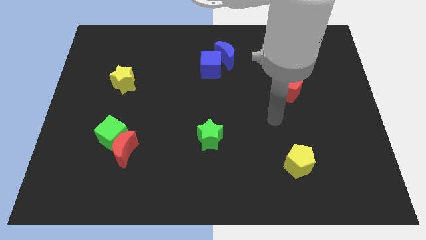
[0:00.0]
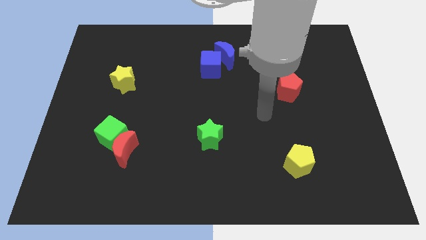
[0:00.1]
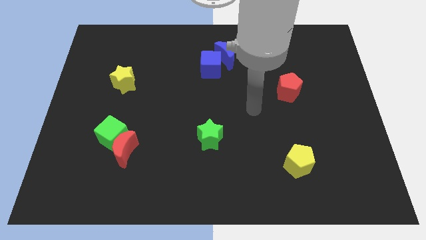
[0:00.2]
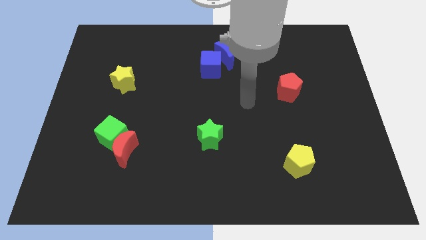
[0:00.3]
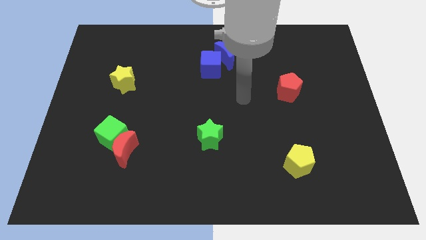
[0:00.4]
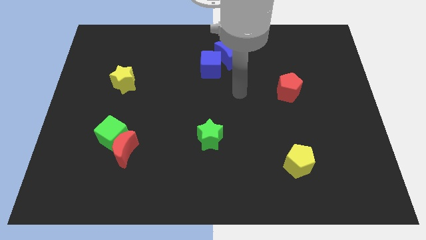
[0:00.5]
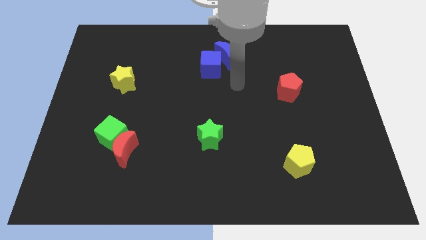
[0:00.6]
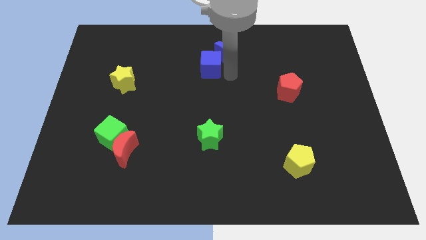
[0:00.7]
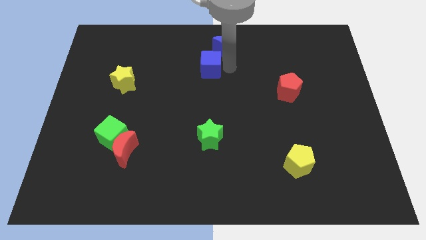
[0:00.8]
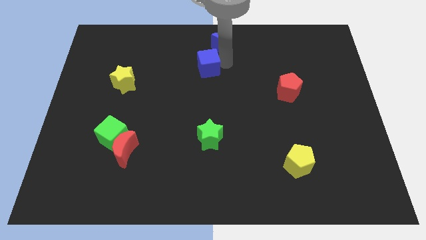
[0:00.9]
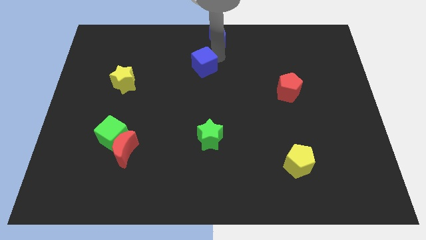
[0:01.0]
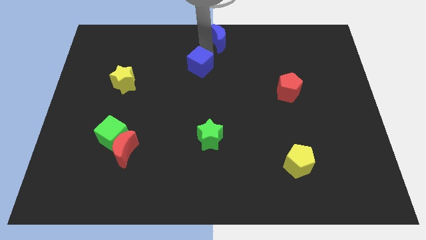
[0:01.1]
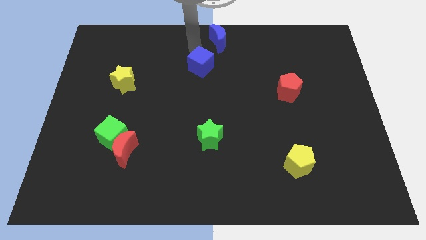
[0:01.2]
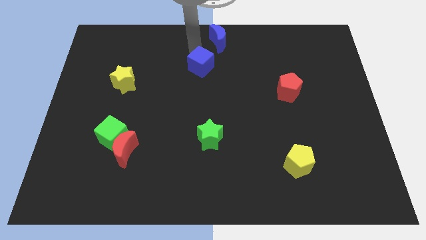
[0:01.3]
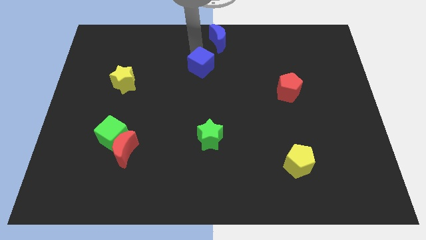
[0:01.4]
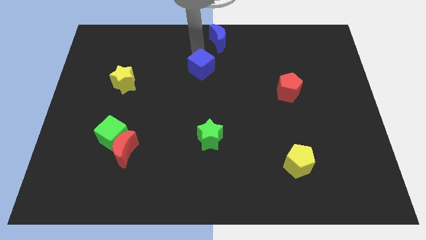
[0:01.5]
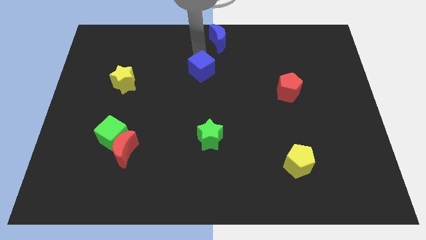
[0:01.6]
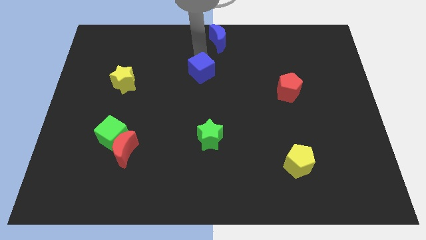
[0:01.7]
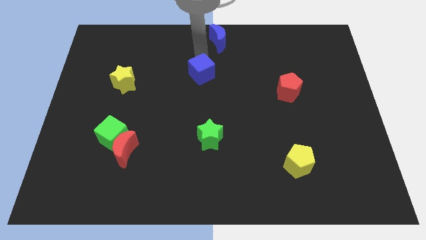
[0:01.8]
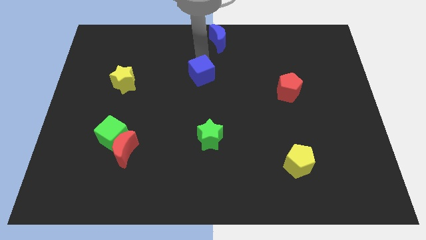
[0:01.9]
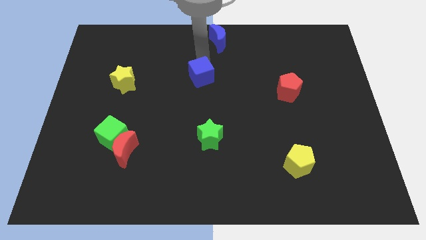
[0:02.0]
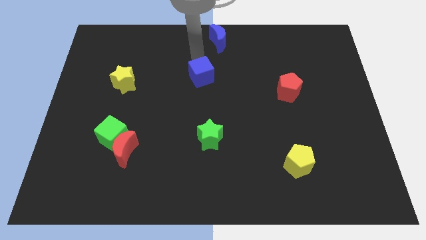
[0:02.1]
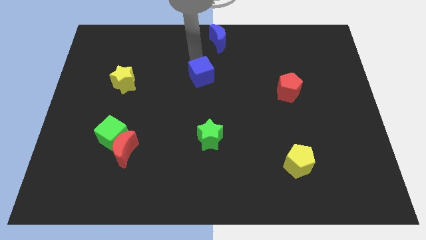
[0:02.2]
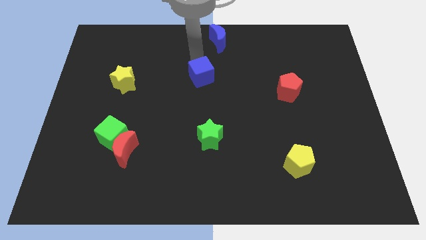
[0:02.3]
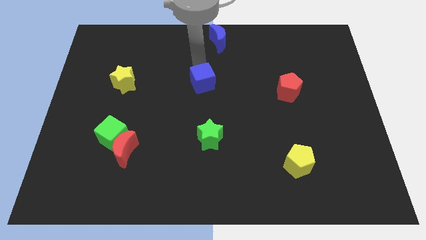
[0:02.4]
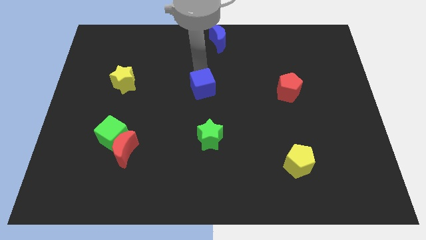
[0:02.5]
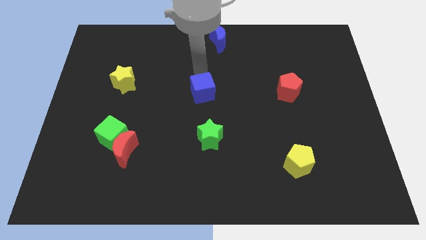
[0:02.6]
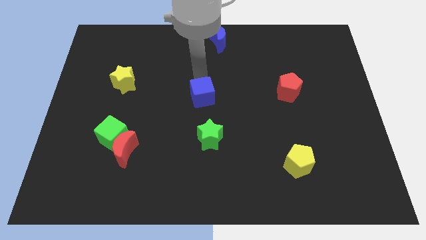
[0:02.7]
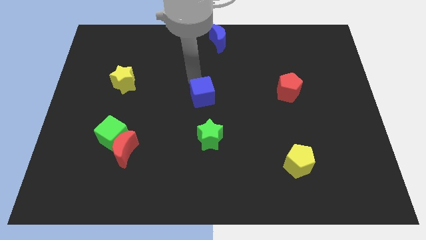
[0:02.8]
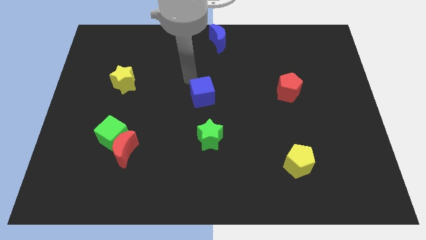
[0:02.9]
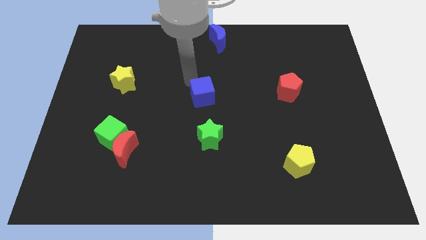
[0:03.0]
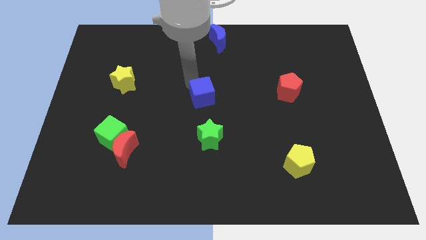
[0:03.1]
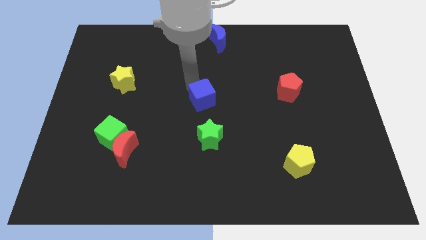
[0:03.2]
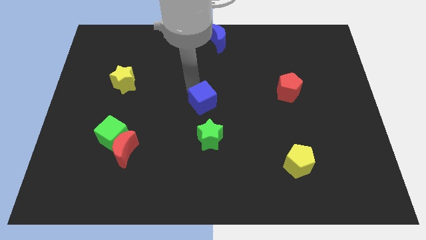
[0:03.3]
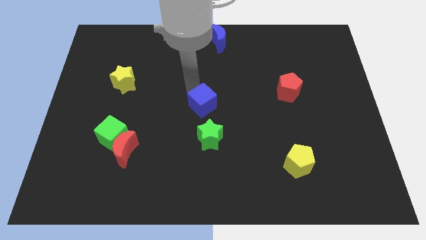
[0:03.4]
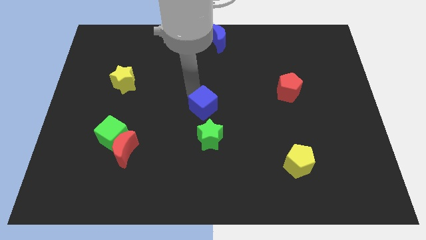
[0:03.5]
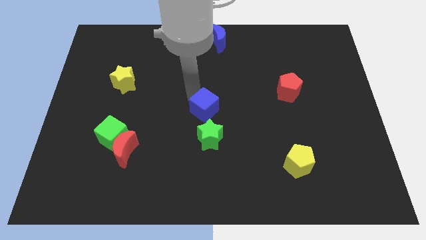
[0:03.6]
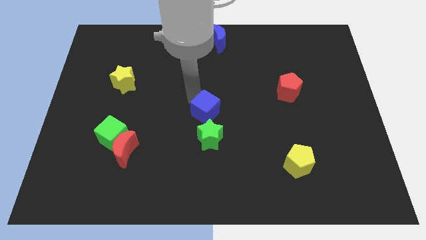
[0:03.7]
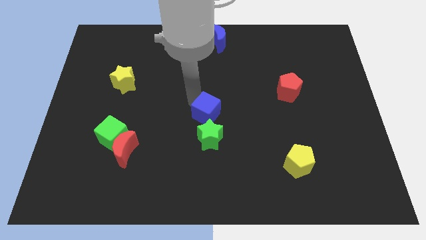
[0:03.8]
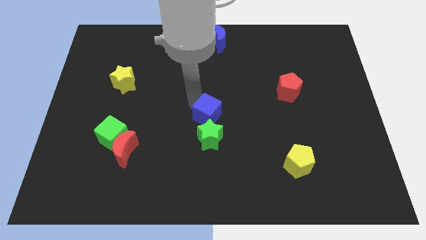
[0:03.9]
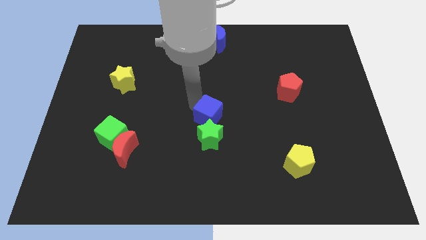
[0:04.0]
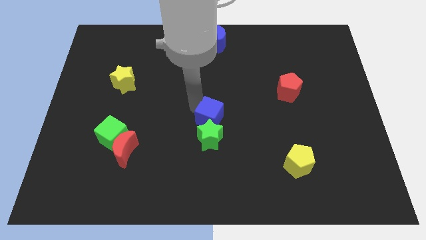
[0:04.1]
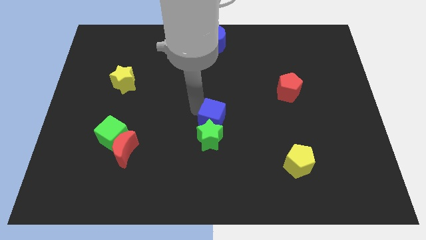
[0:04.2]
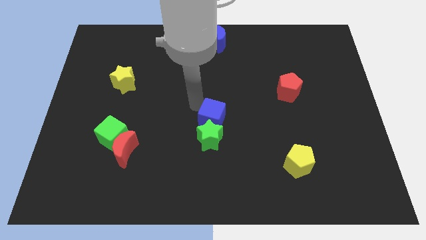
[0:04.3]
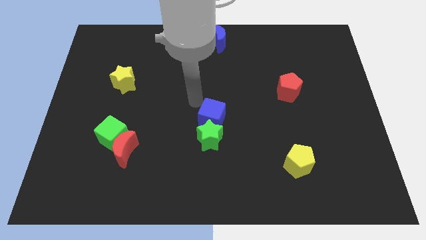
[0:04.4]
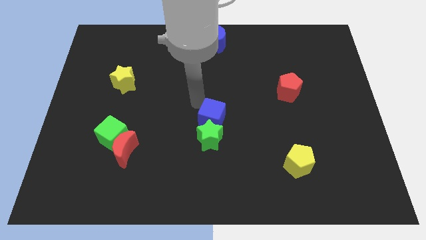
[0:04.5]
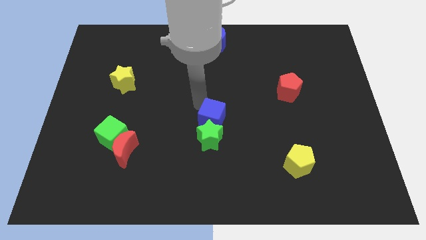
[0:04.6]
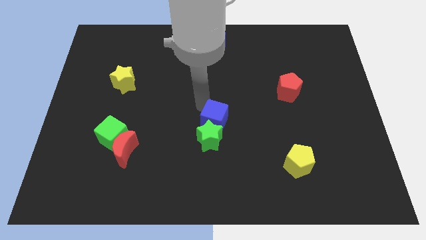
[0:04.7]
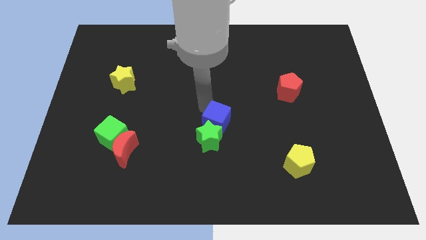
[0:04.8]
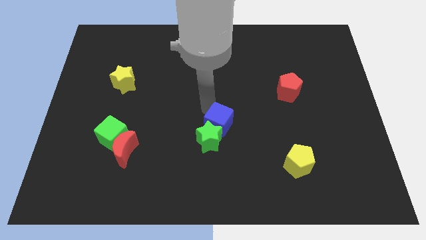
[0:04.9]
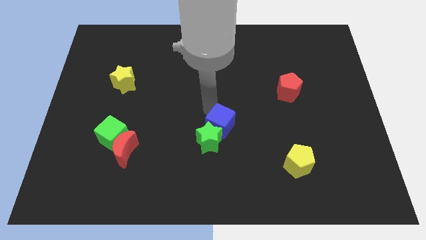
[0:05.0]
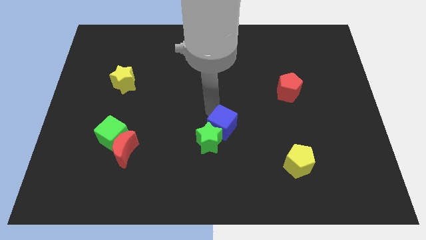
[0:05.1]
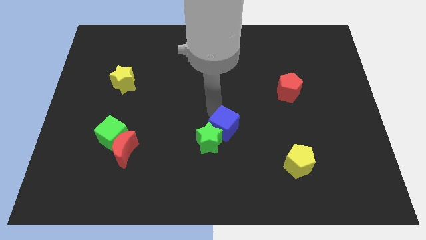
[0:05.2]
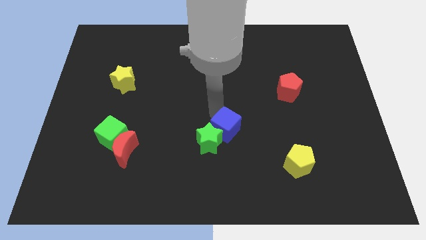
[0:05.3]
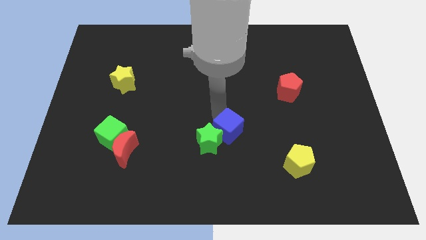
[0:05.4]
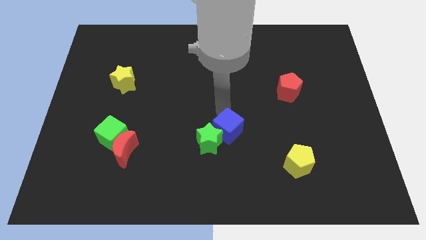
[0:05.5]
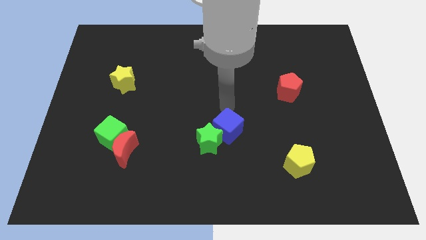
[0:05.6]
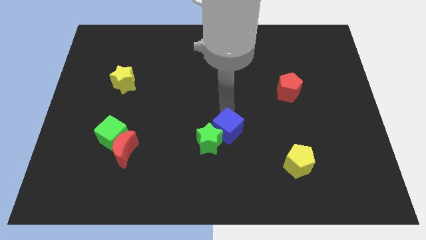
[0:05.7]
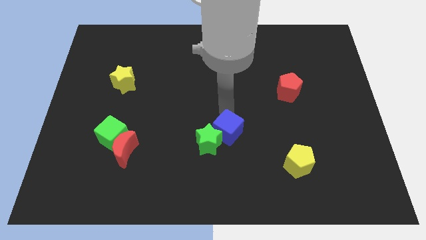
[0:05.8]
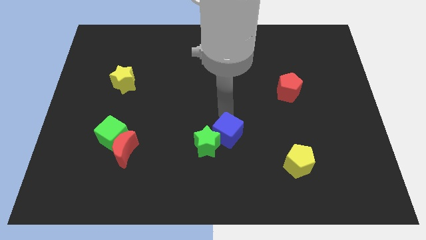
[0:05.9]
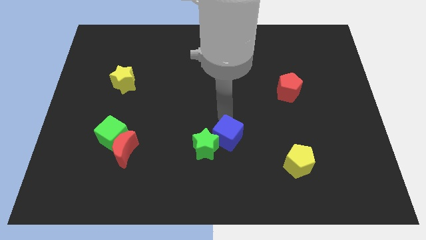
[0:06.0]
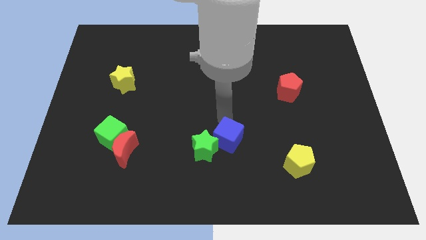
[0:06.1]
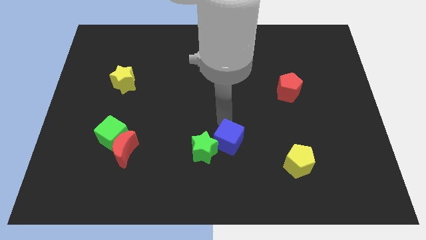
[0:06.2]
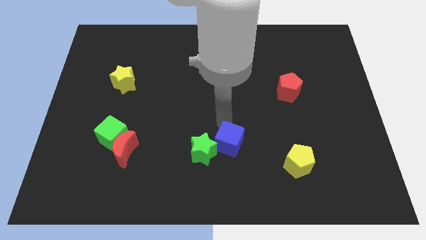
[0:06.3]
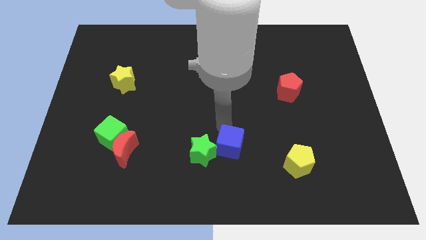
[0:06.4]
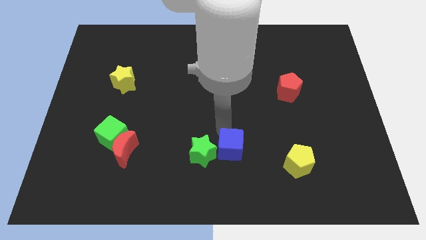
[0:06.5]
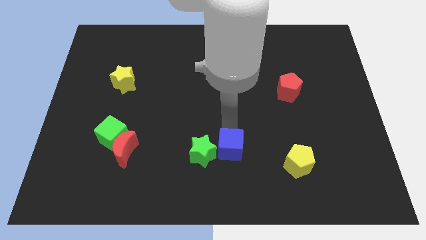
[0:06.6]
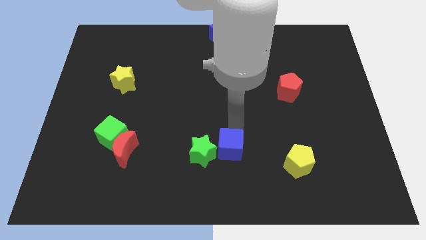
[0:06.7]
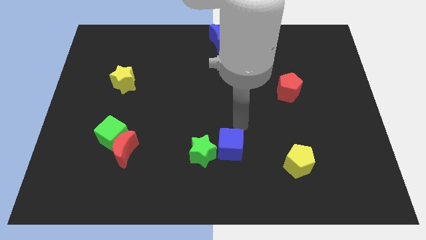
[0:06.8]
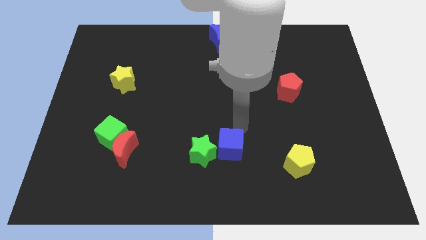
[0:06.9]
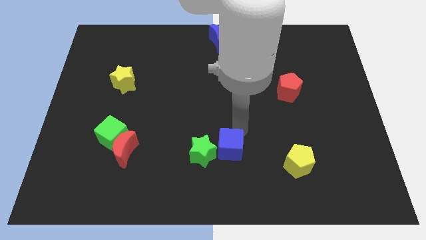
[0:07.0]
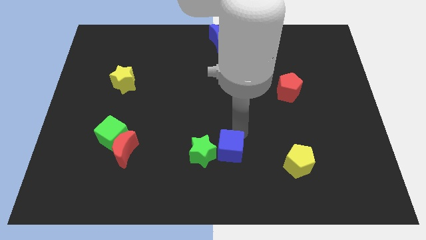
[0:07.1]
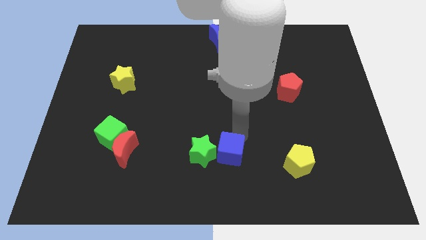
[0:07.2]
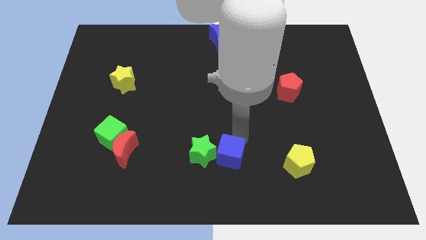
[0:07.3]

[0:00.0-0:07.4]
put the blue cube to the bottom
